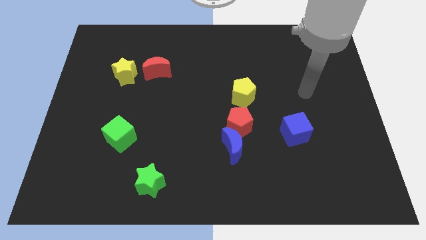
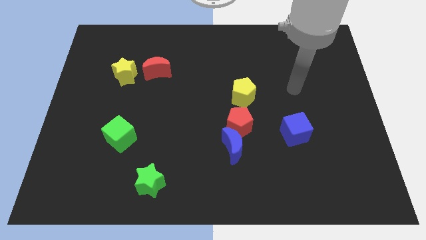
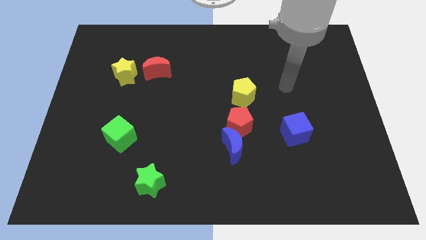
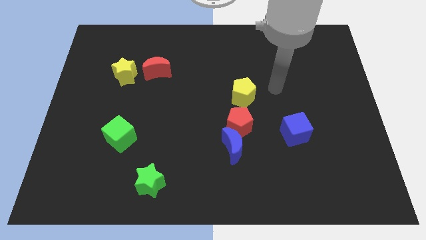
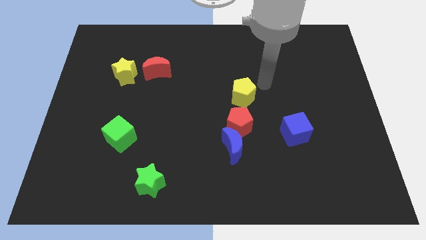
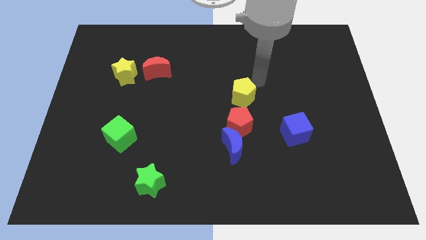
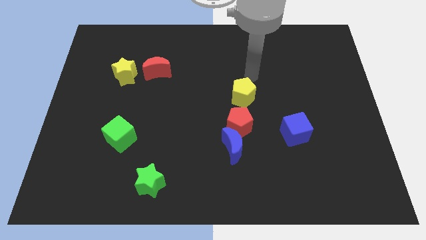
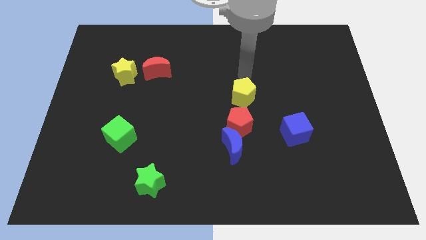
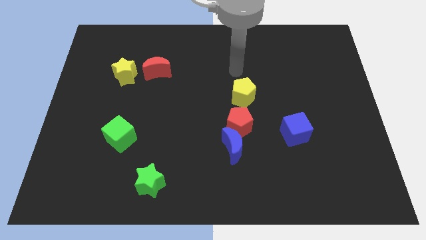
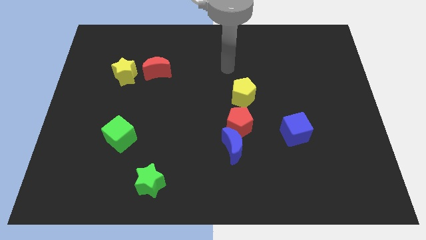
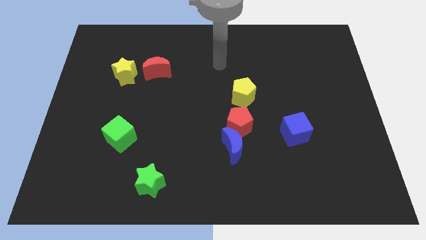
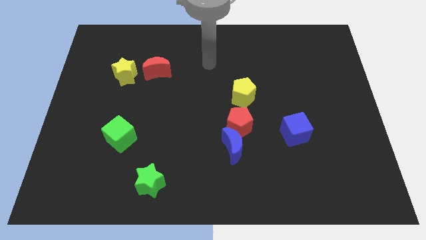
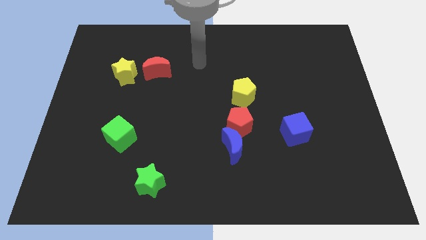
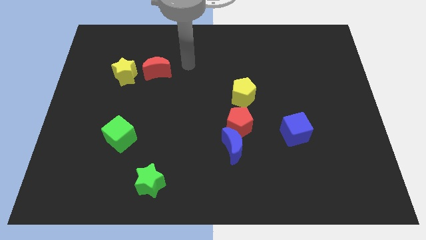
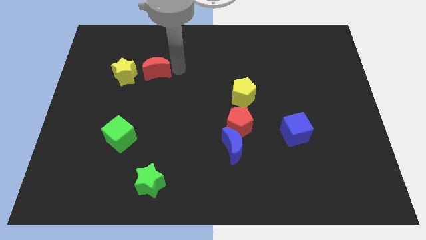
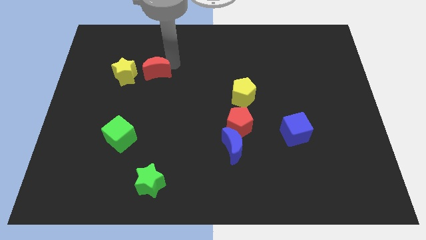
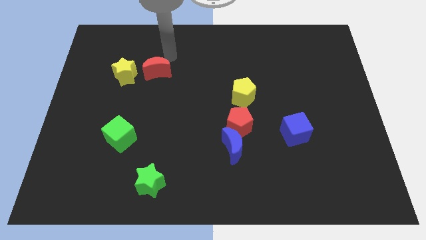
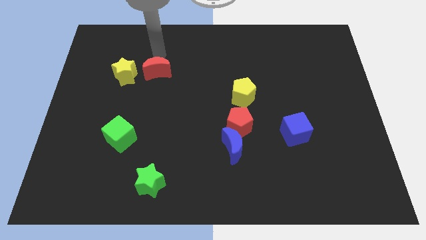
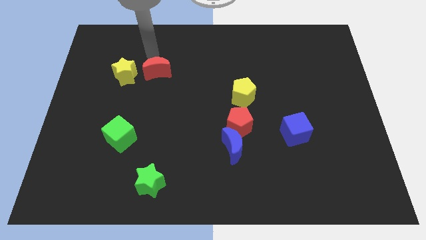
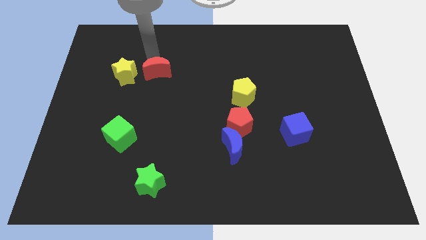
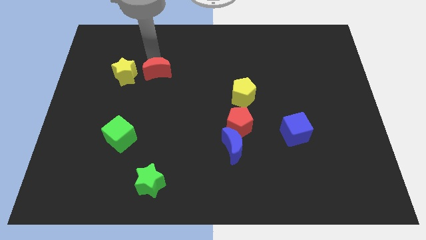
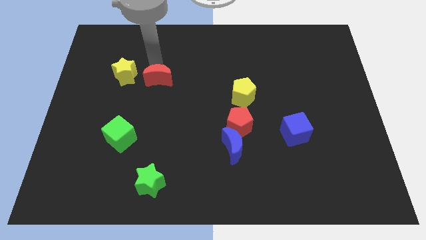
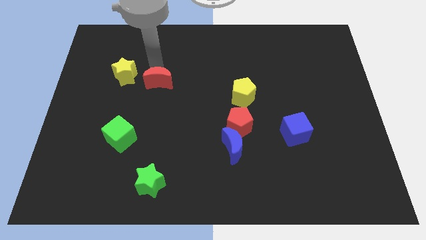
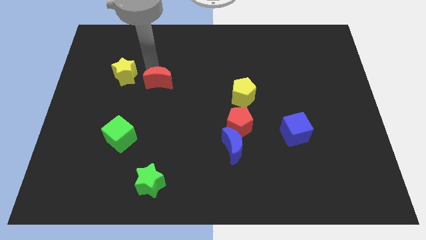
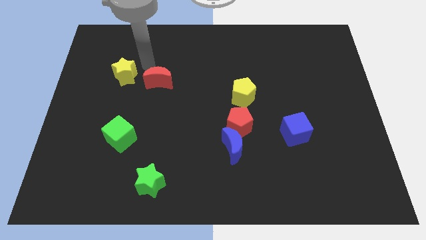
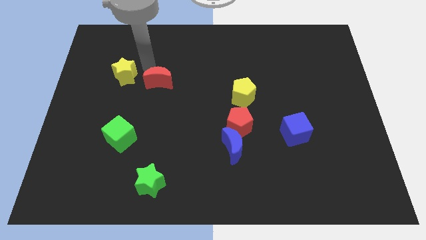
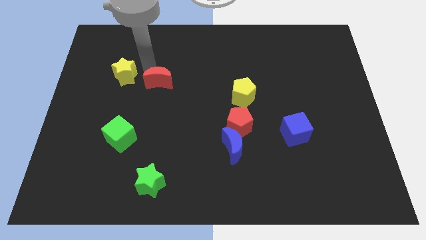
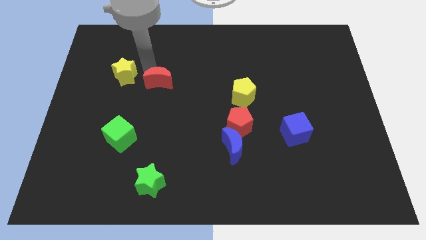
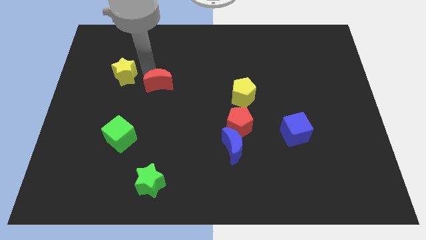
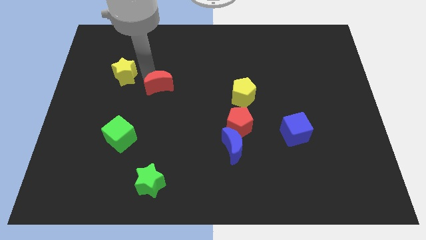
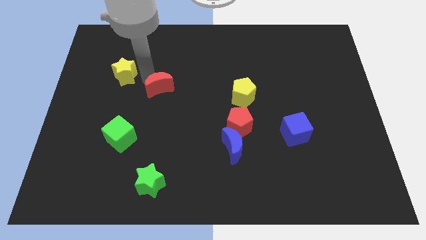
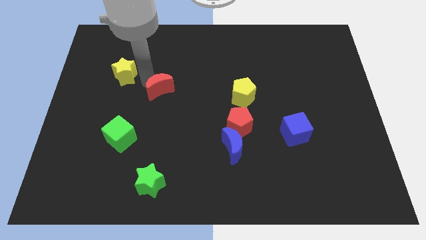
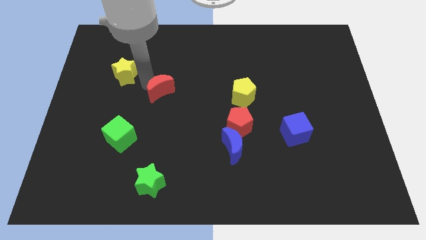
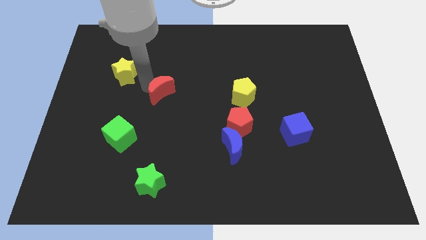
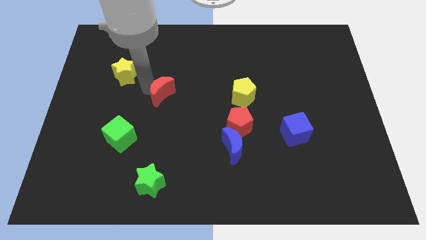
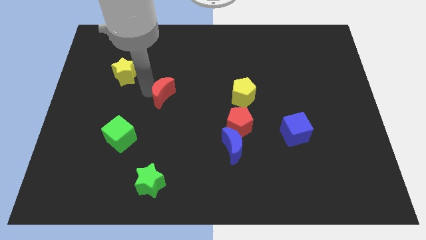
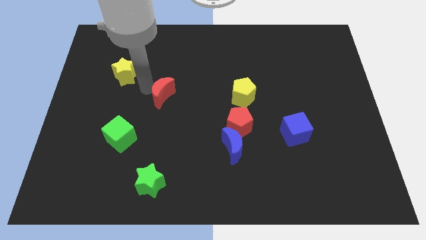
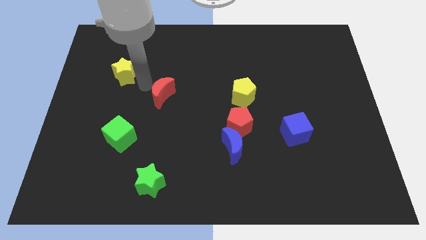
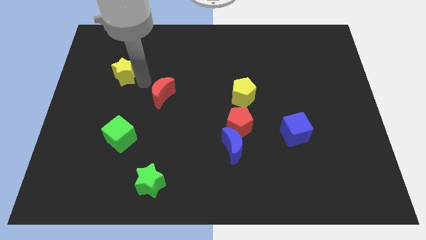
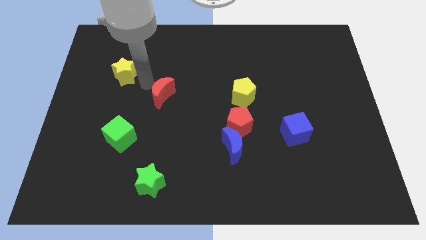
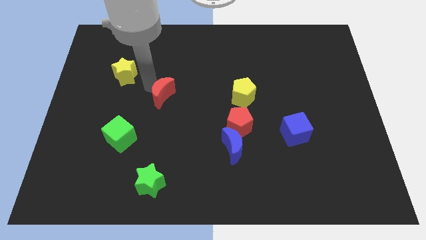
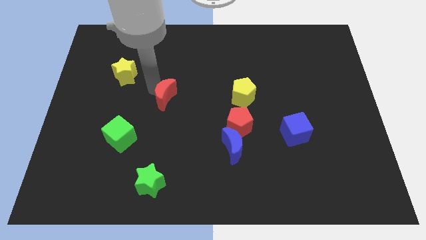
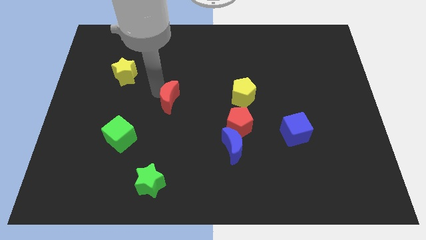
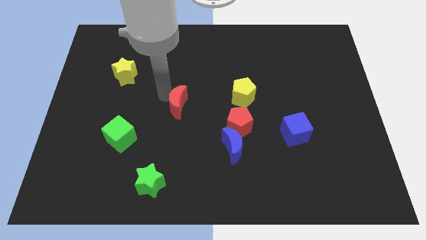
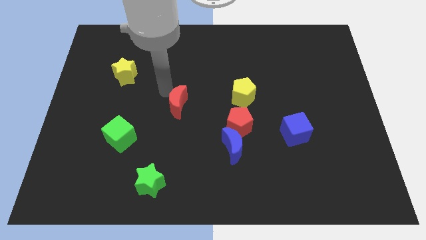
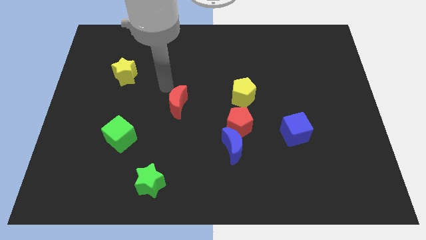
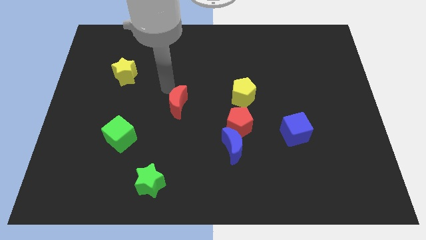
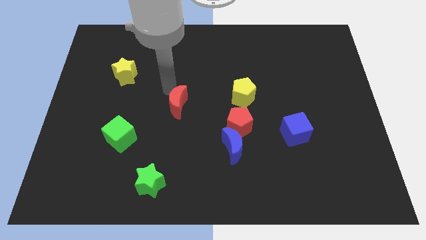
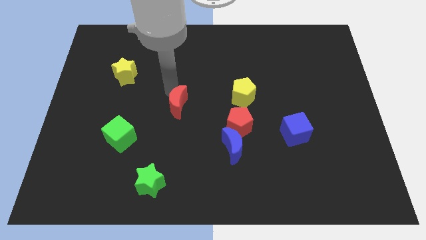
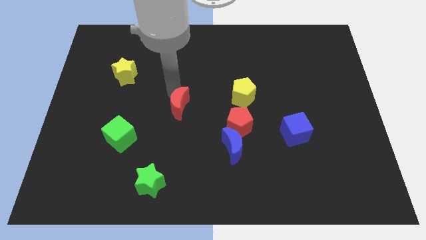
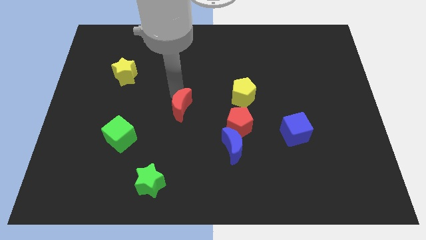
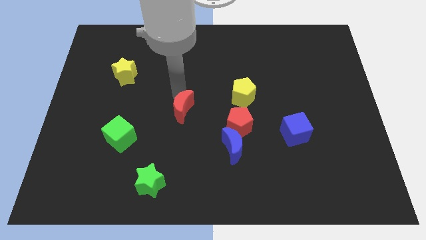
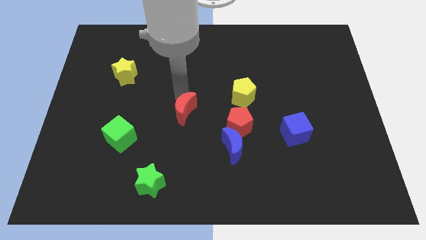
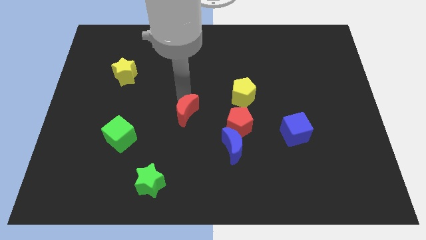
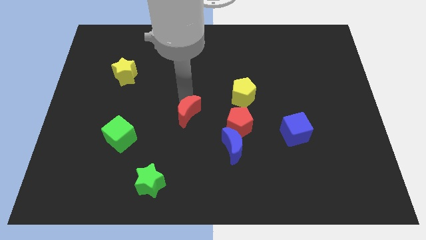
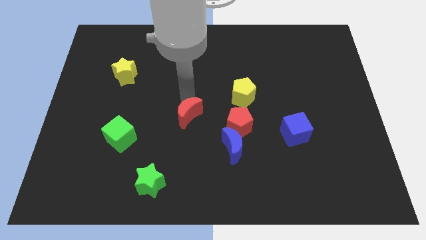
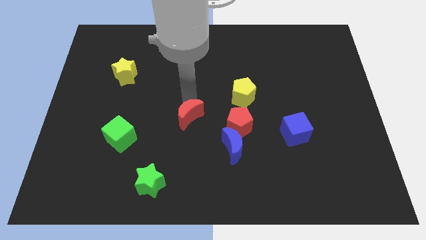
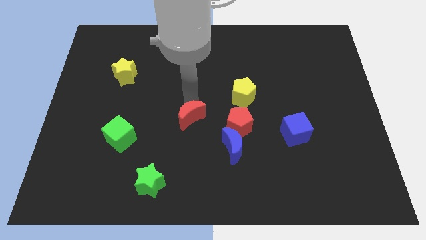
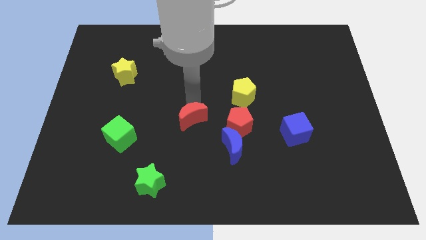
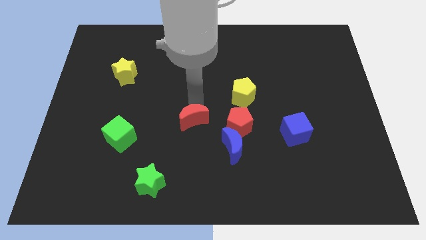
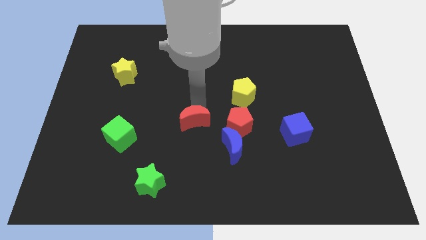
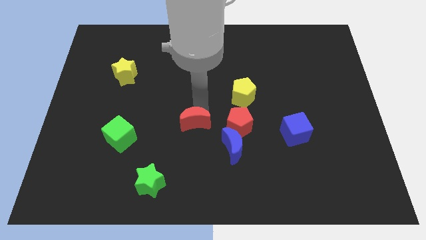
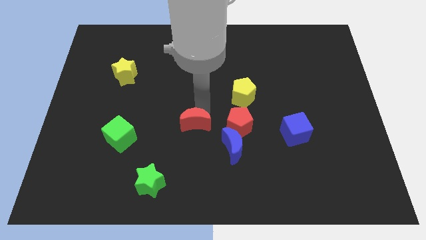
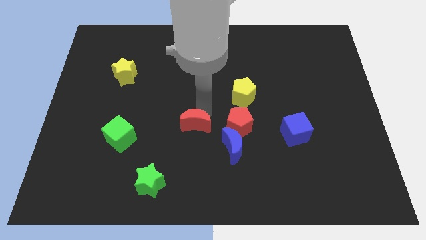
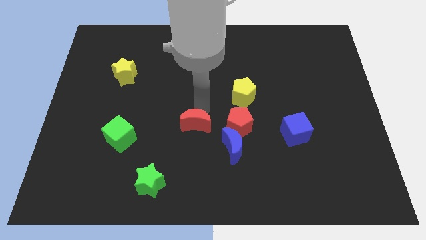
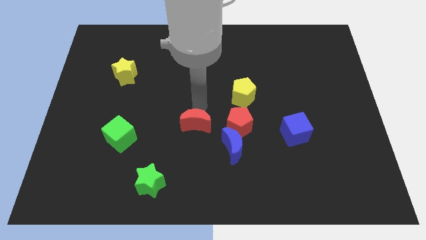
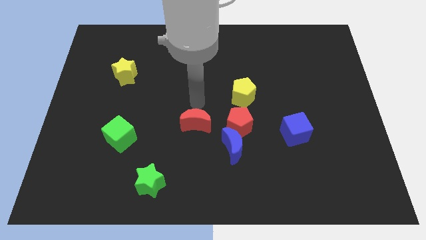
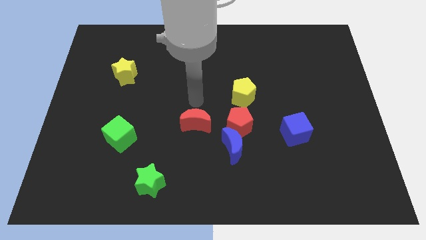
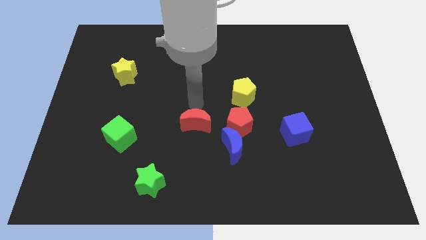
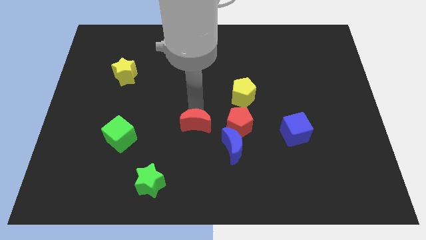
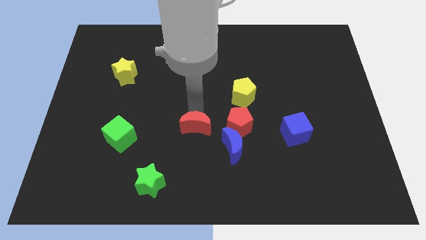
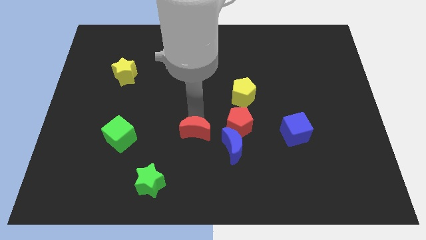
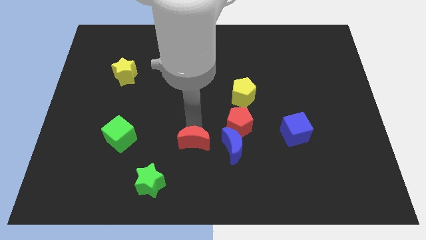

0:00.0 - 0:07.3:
push the red moon diagonally downwards and to the right

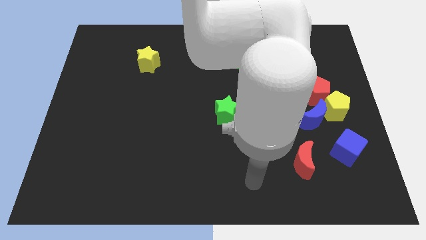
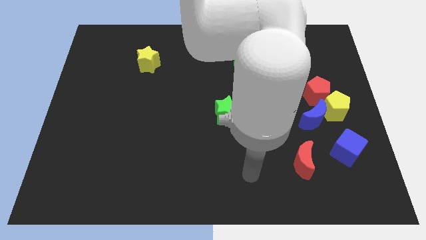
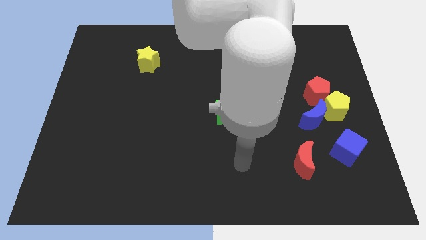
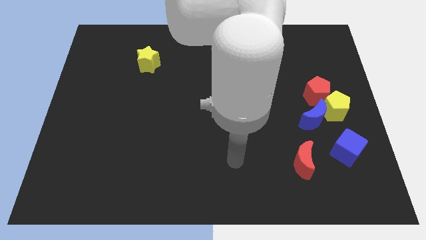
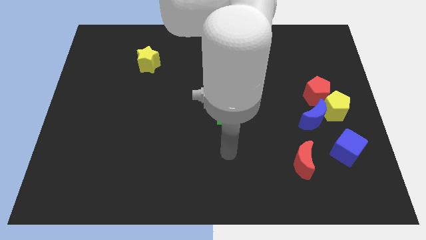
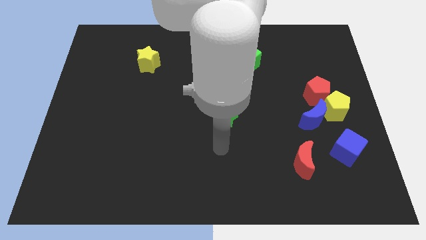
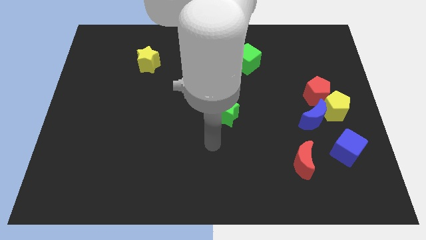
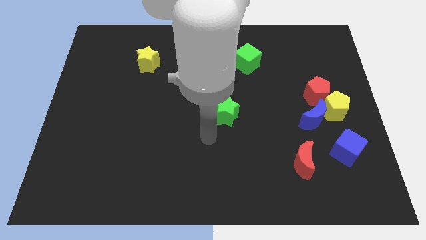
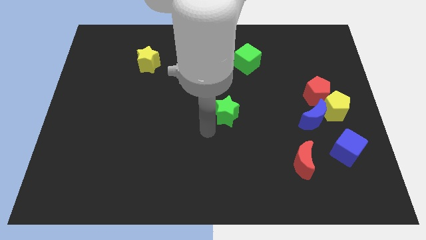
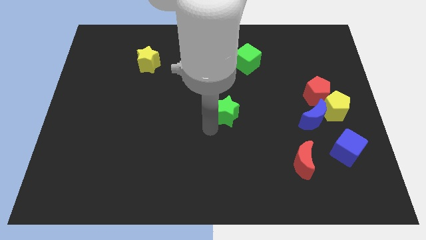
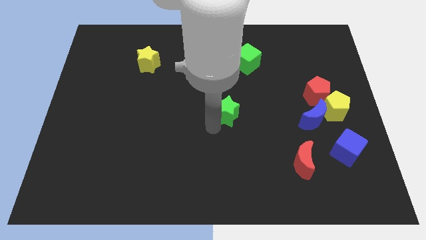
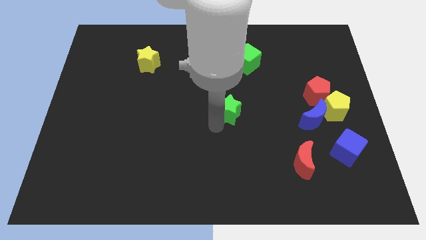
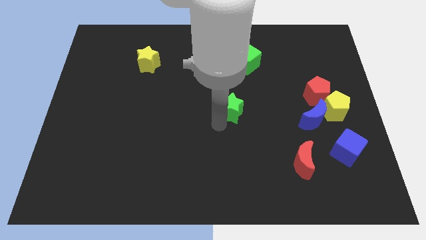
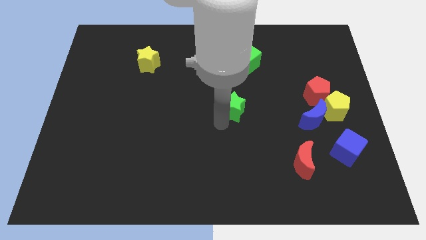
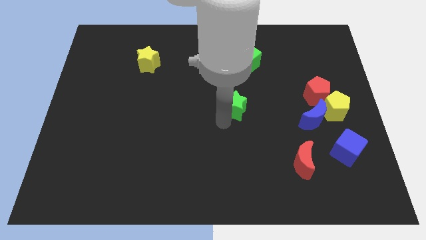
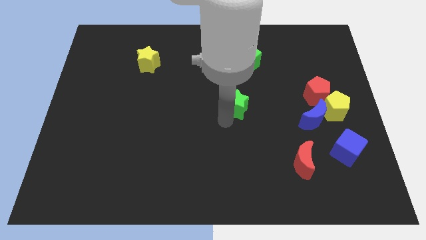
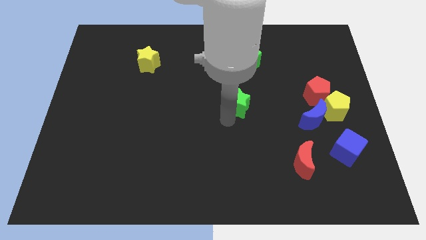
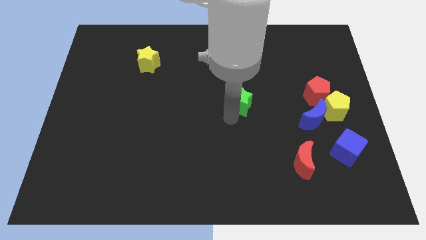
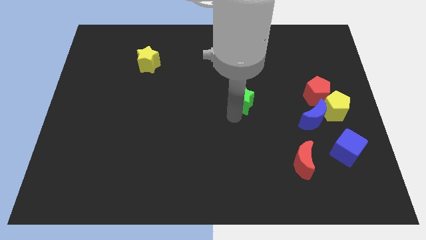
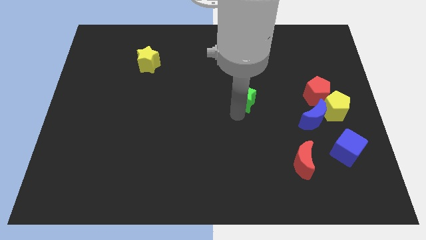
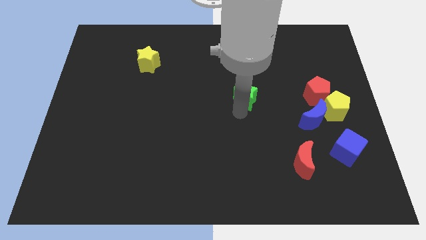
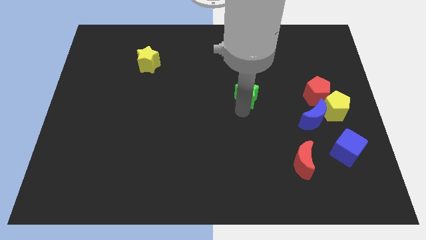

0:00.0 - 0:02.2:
move the green star slightly up and to the right
